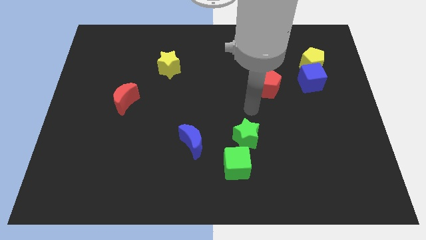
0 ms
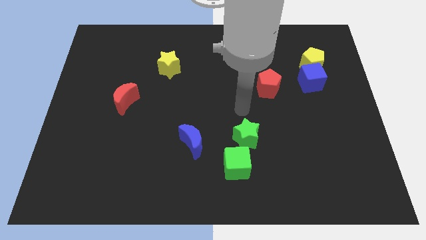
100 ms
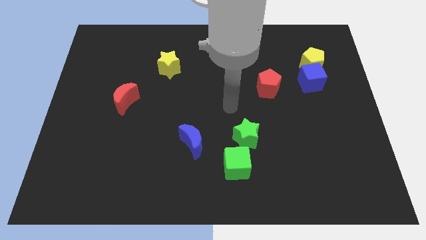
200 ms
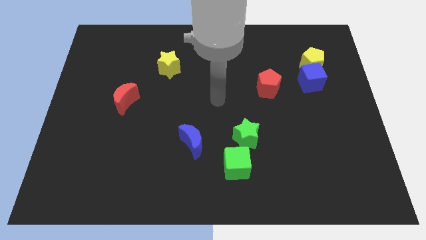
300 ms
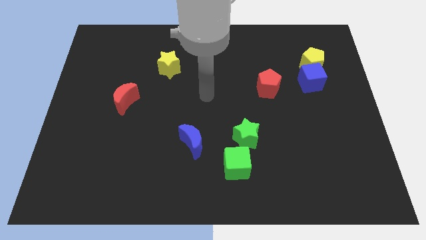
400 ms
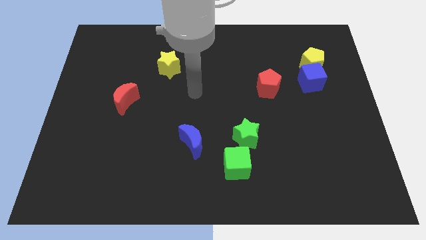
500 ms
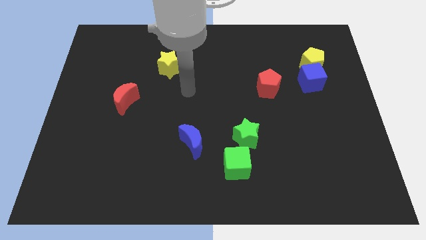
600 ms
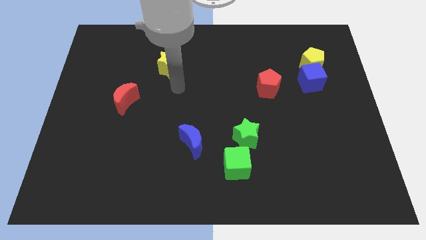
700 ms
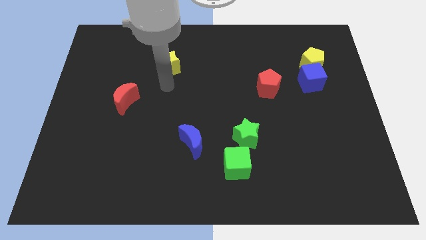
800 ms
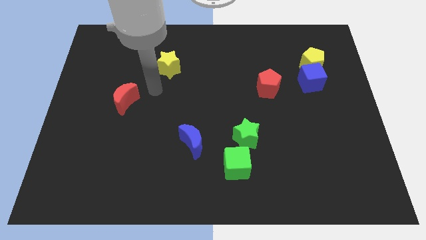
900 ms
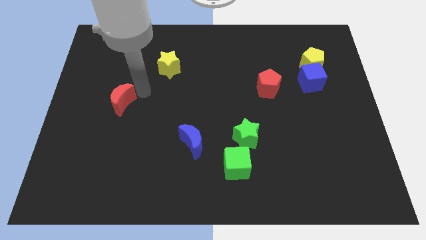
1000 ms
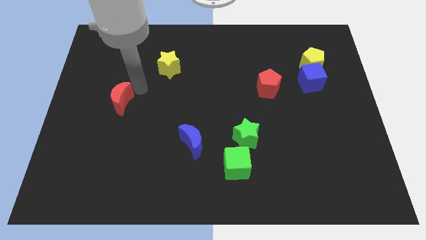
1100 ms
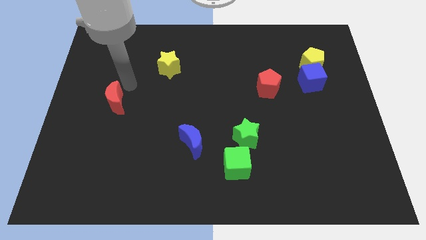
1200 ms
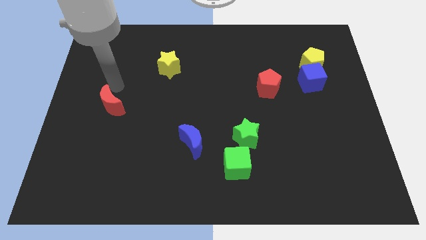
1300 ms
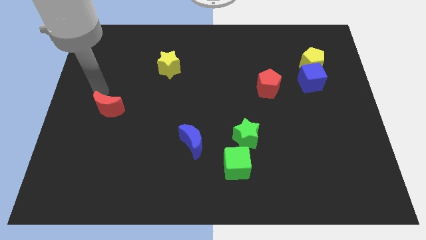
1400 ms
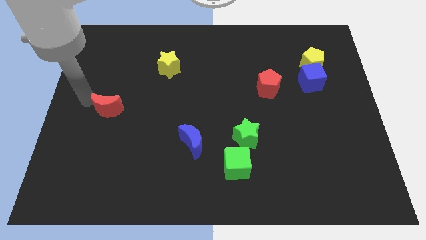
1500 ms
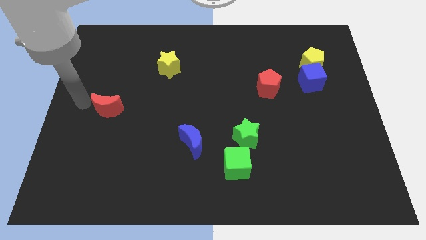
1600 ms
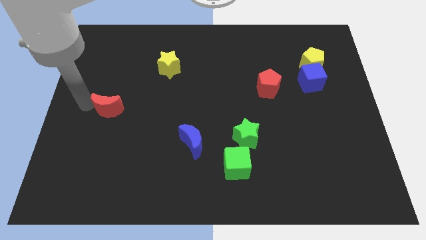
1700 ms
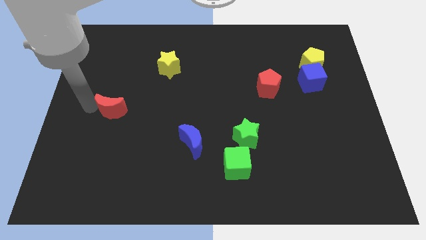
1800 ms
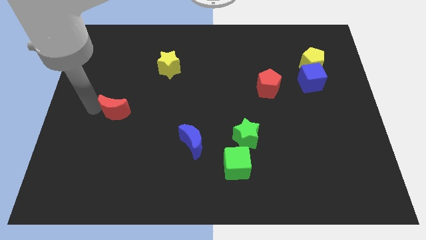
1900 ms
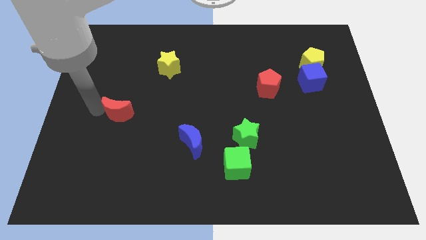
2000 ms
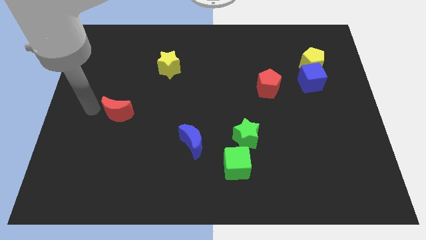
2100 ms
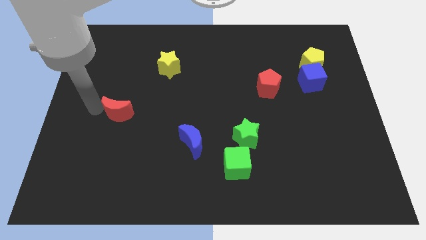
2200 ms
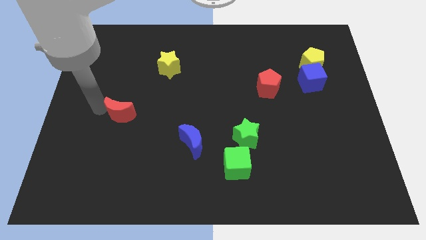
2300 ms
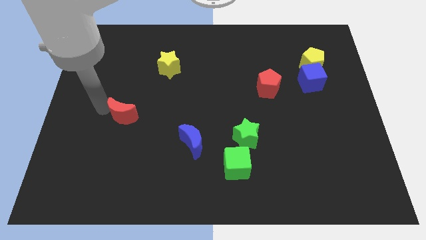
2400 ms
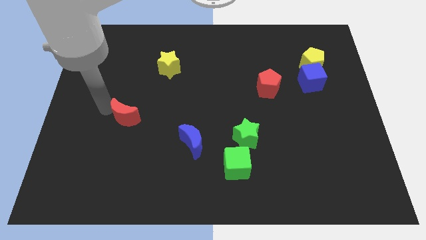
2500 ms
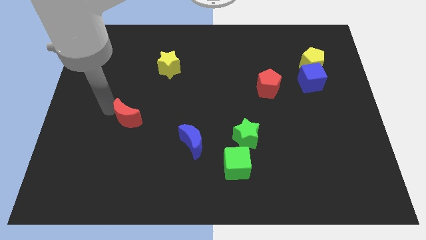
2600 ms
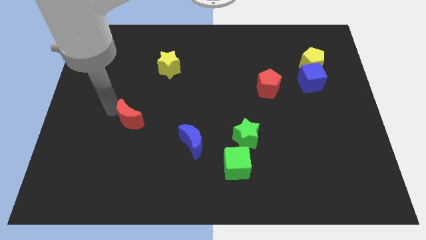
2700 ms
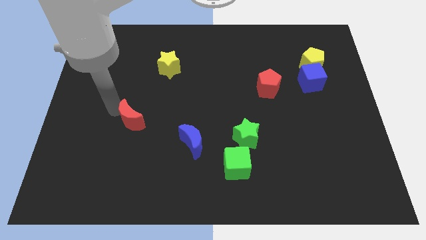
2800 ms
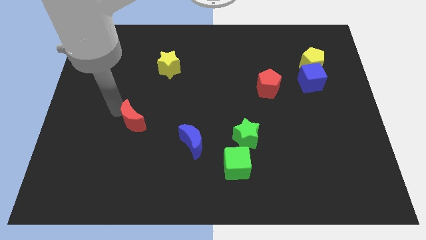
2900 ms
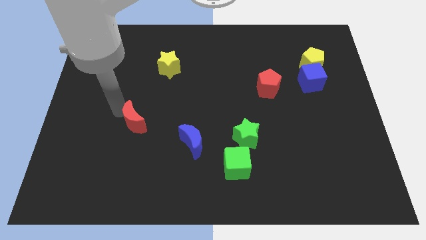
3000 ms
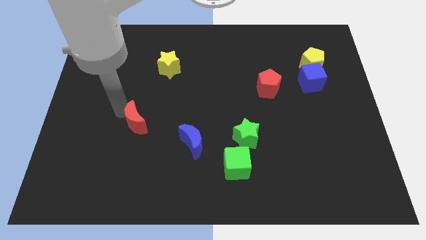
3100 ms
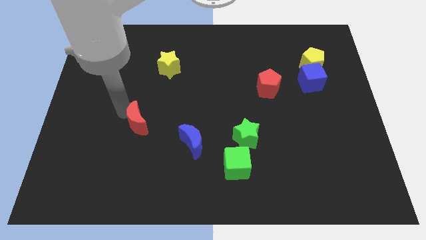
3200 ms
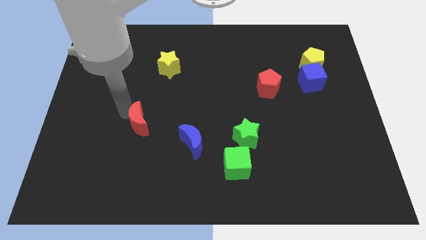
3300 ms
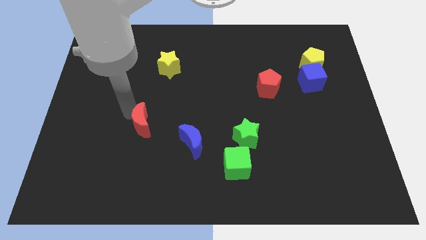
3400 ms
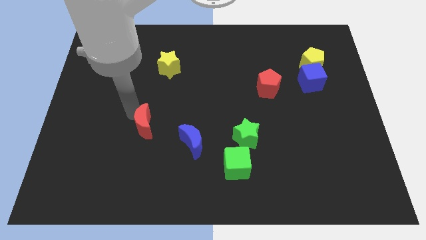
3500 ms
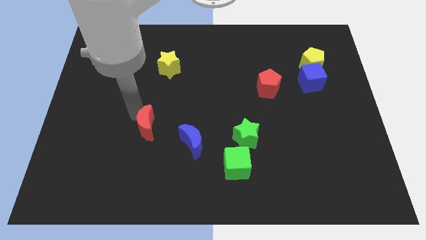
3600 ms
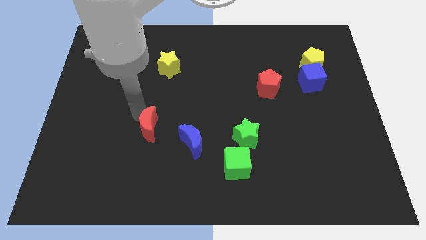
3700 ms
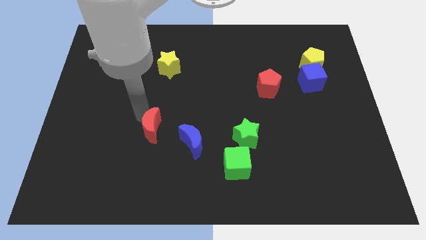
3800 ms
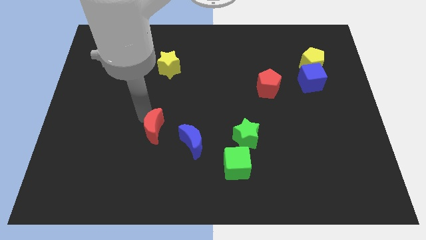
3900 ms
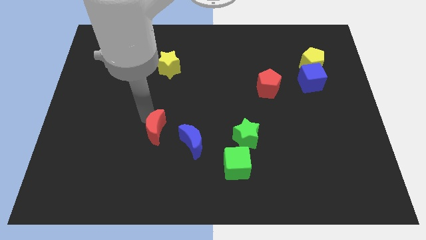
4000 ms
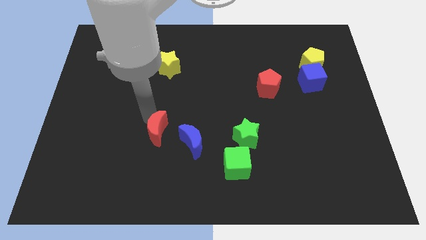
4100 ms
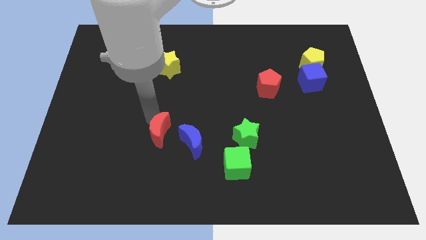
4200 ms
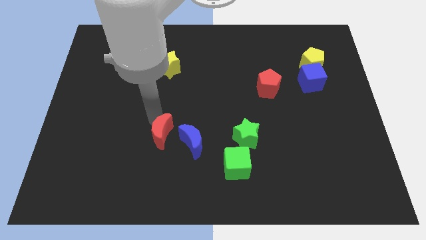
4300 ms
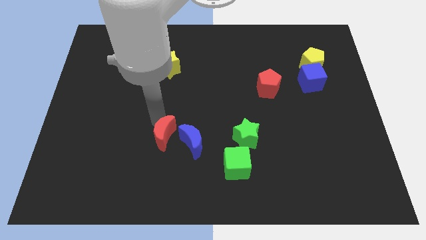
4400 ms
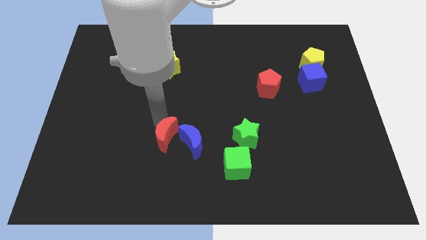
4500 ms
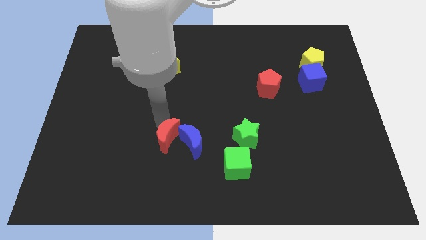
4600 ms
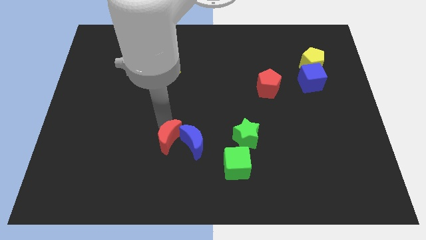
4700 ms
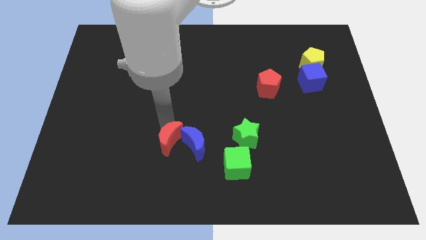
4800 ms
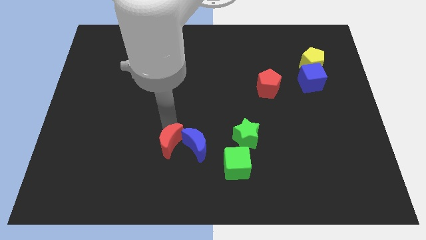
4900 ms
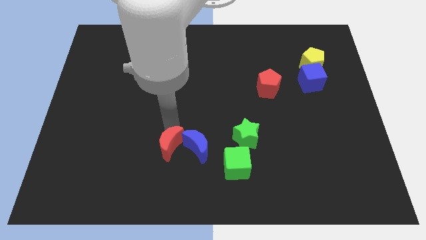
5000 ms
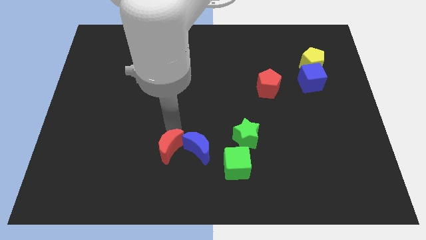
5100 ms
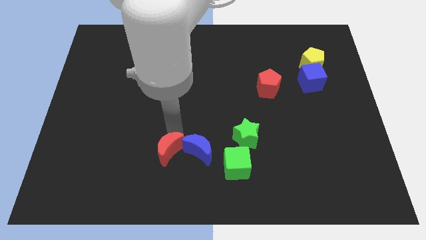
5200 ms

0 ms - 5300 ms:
put the red moon to the left of the green cube

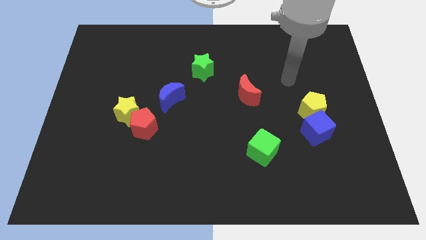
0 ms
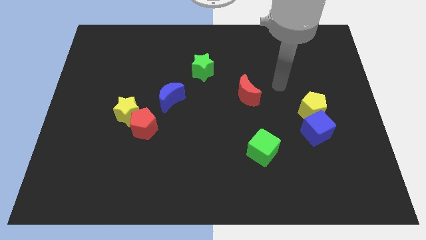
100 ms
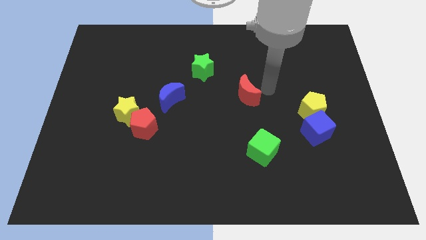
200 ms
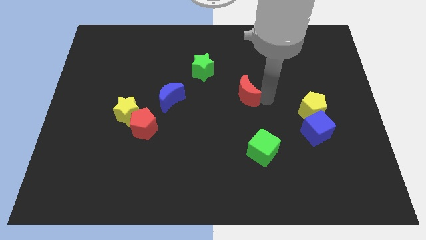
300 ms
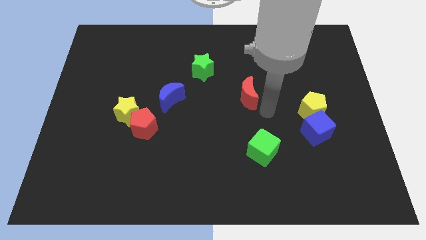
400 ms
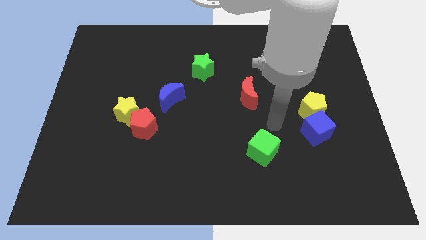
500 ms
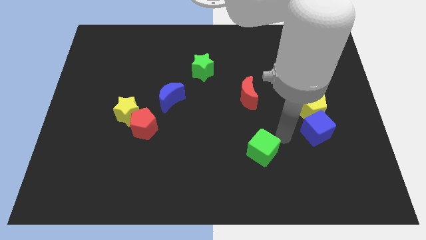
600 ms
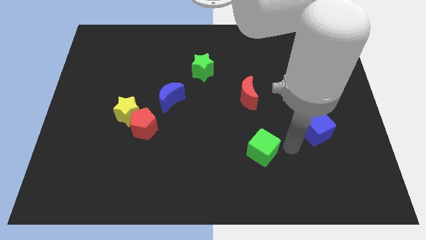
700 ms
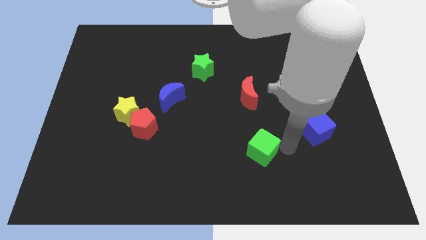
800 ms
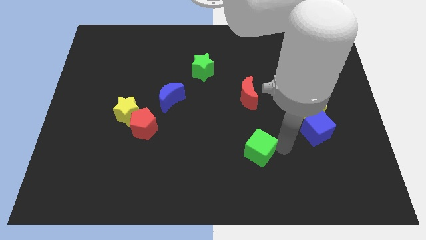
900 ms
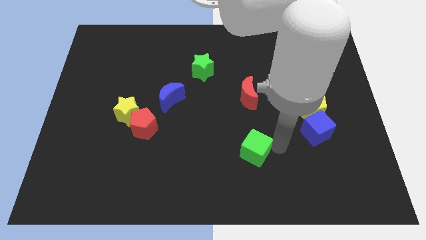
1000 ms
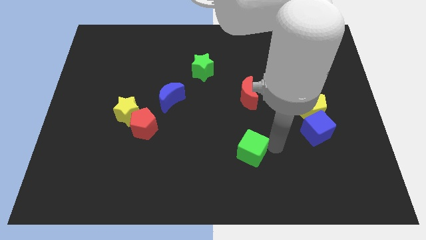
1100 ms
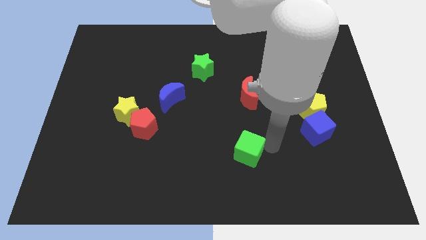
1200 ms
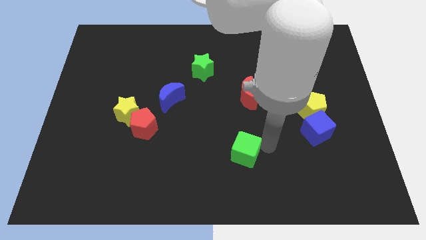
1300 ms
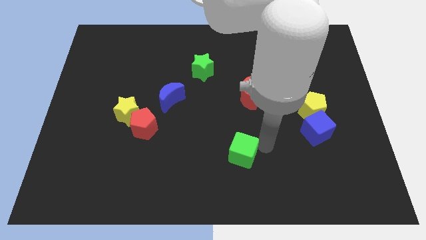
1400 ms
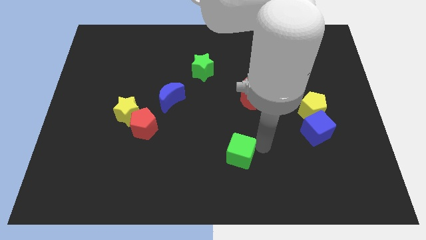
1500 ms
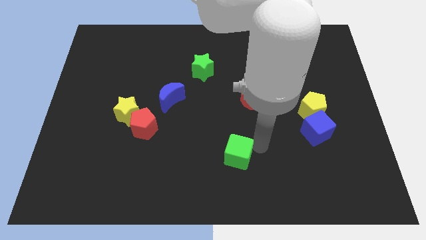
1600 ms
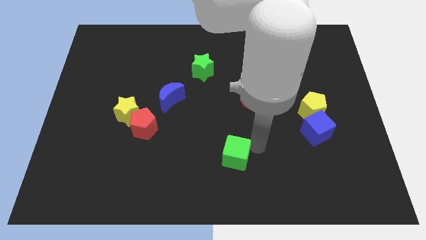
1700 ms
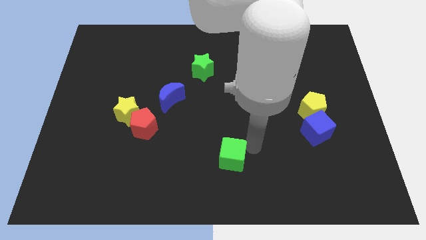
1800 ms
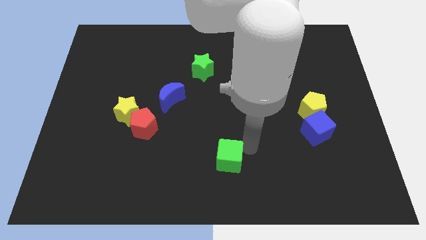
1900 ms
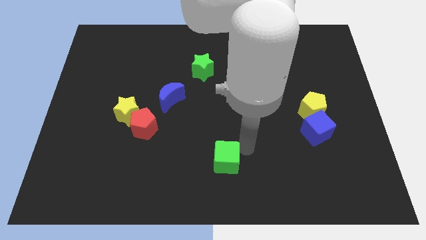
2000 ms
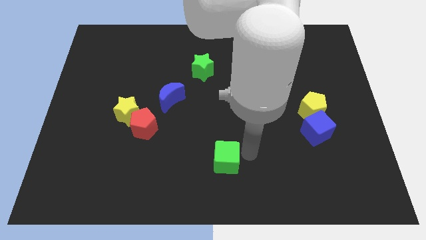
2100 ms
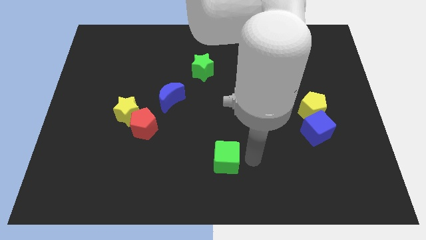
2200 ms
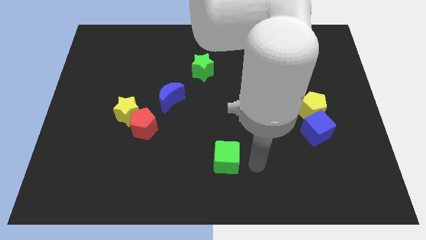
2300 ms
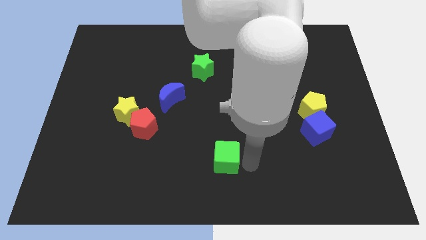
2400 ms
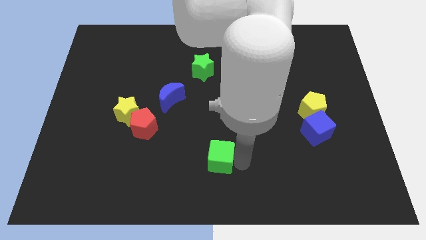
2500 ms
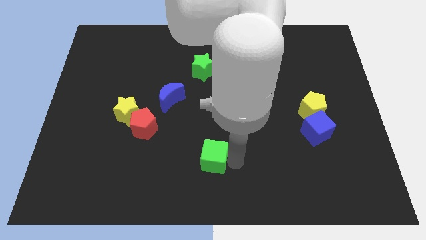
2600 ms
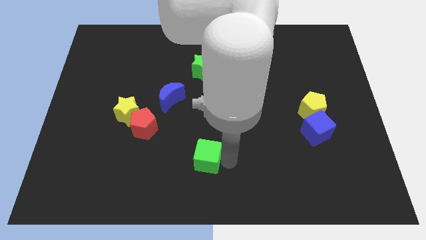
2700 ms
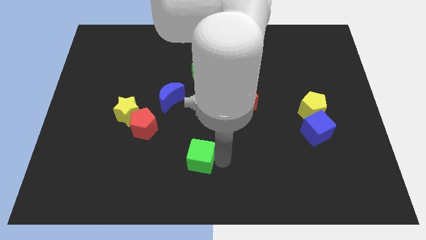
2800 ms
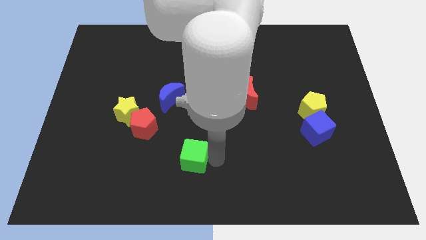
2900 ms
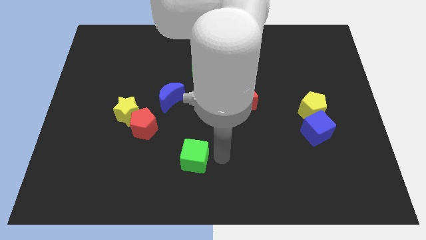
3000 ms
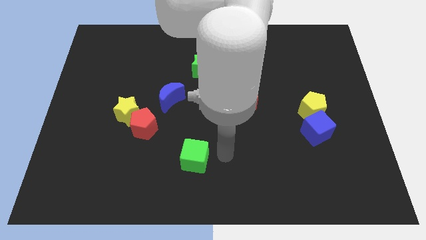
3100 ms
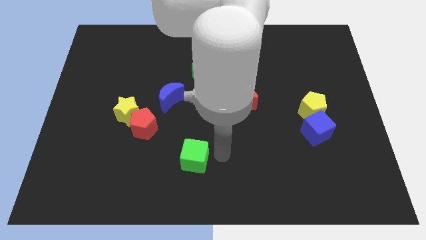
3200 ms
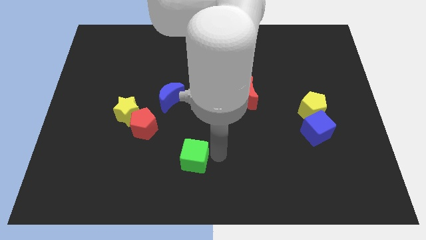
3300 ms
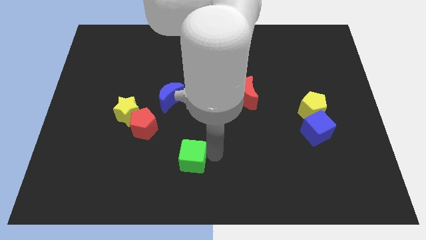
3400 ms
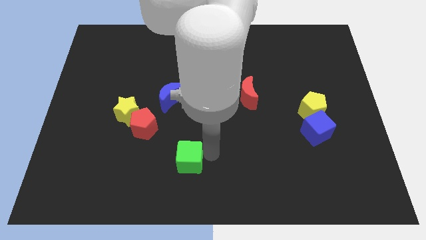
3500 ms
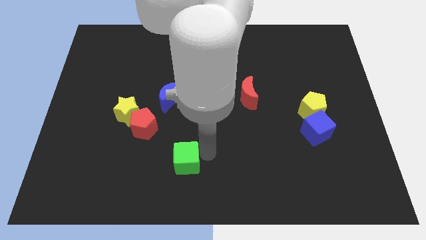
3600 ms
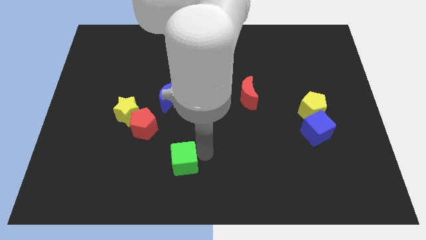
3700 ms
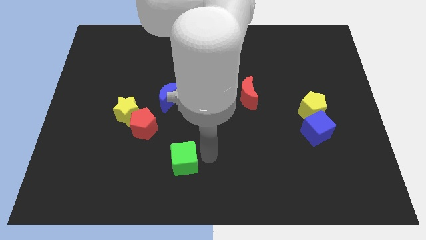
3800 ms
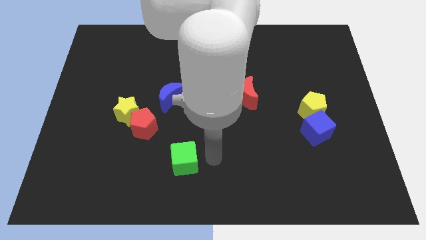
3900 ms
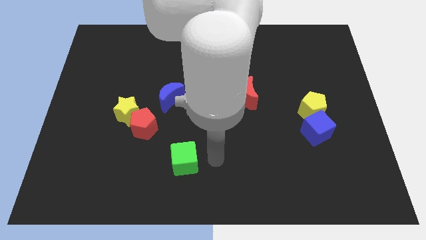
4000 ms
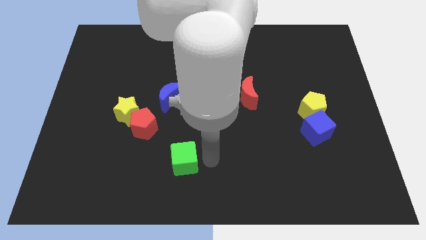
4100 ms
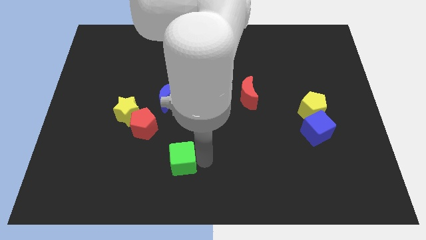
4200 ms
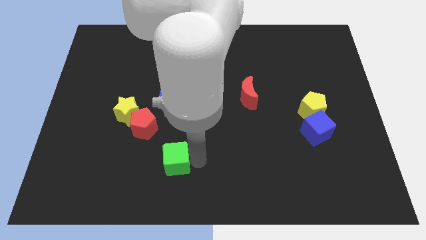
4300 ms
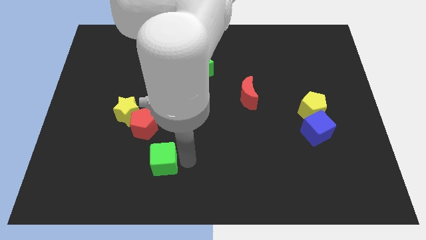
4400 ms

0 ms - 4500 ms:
slide the green cube to the bottom of the red pentagon
